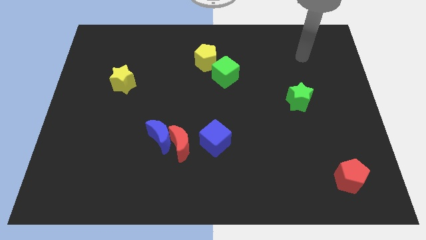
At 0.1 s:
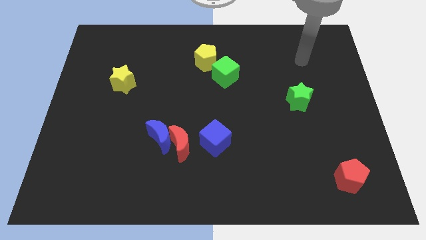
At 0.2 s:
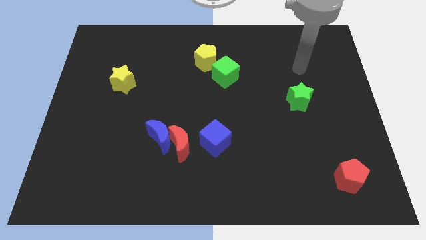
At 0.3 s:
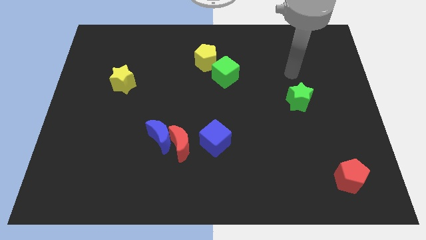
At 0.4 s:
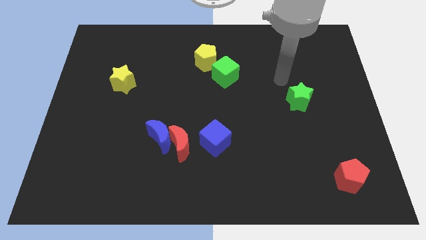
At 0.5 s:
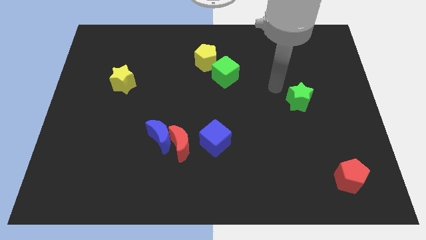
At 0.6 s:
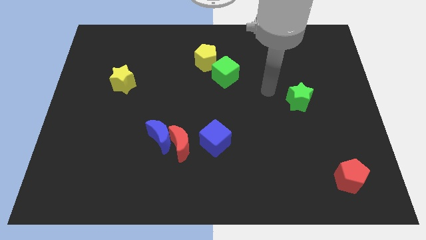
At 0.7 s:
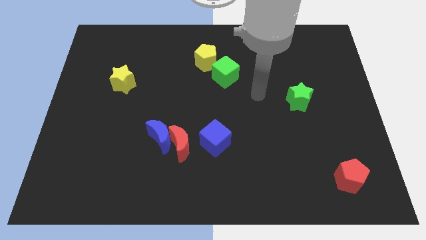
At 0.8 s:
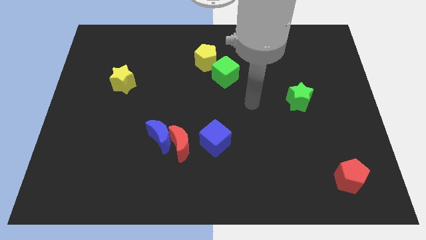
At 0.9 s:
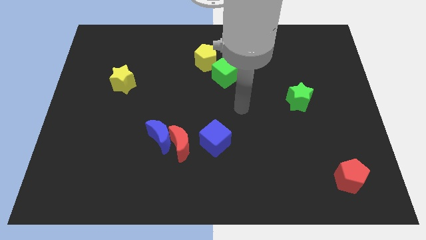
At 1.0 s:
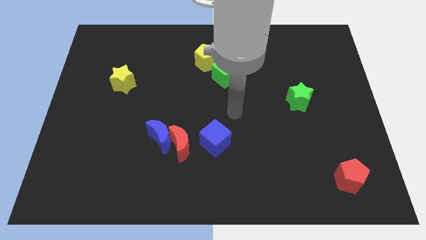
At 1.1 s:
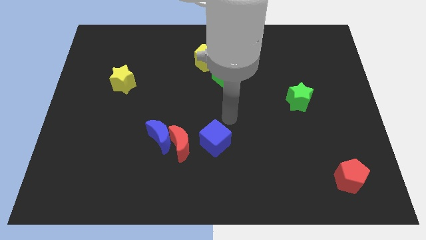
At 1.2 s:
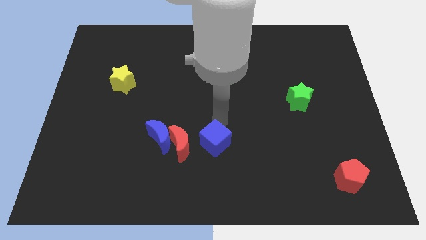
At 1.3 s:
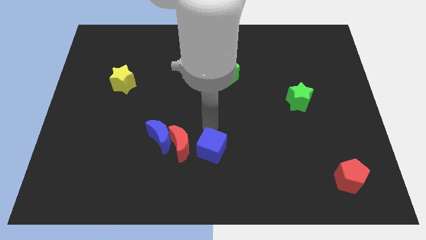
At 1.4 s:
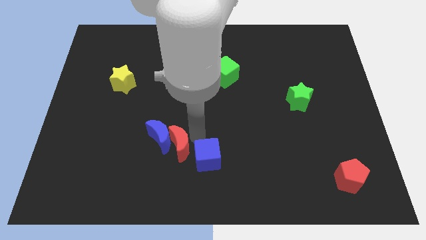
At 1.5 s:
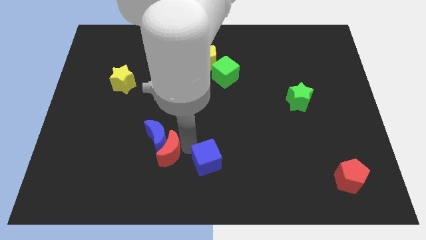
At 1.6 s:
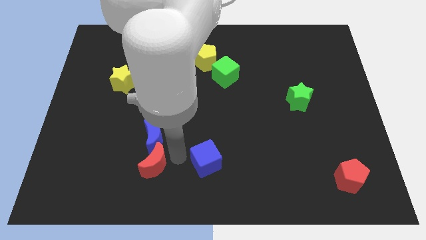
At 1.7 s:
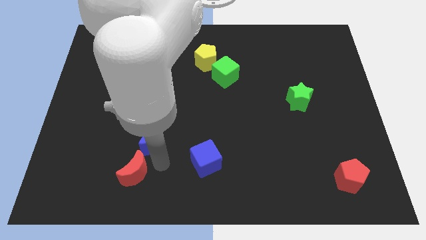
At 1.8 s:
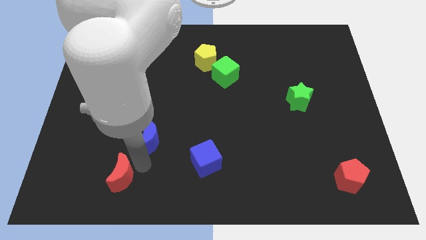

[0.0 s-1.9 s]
move the blue moon away from the red moon

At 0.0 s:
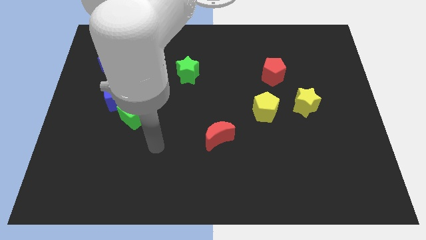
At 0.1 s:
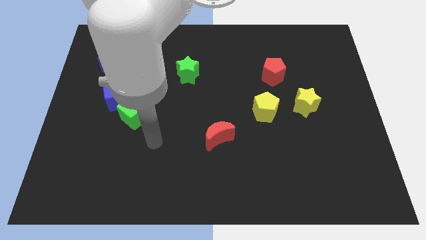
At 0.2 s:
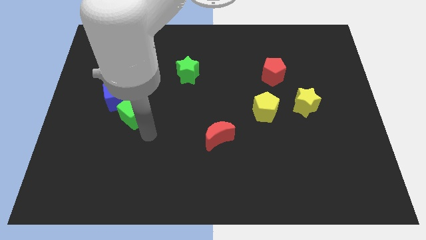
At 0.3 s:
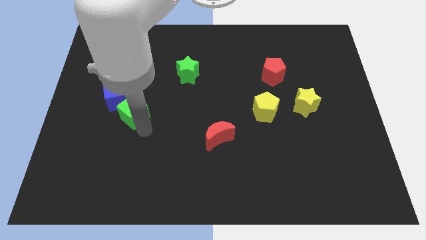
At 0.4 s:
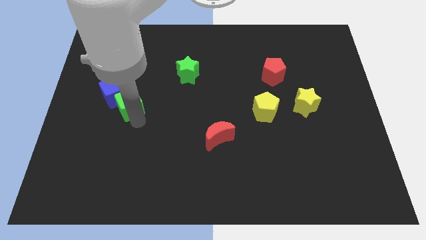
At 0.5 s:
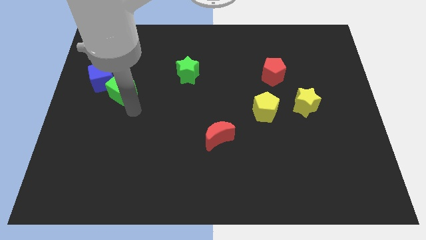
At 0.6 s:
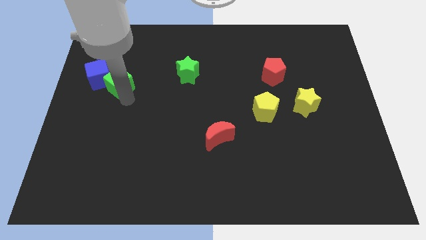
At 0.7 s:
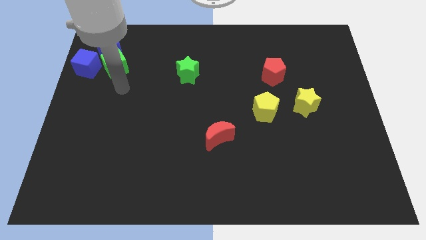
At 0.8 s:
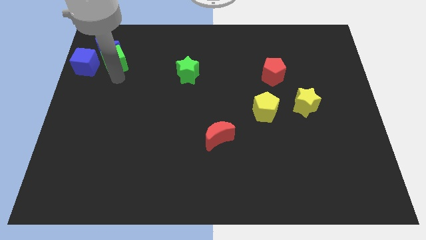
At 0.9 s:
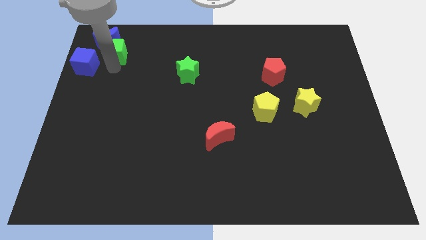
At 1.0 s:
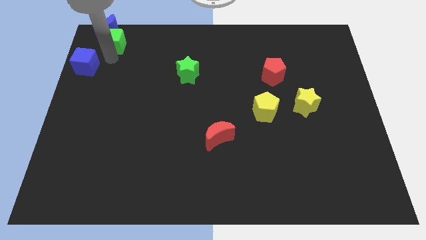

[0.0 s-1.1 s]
move the blue cube away from the green cube

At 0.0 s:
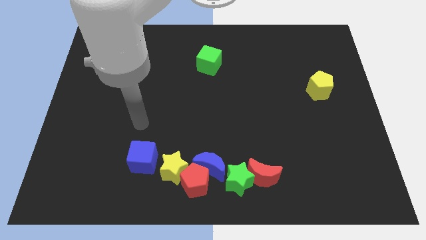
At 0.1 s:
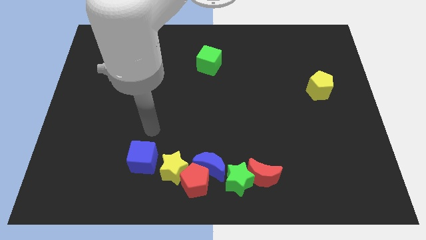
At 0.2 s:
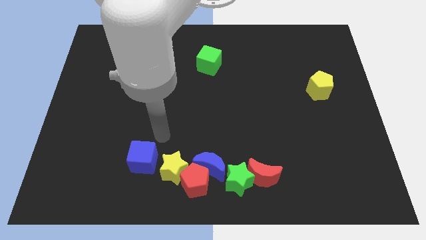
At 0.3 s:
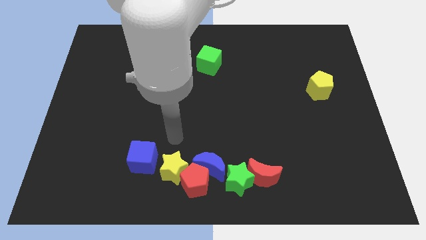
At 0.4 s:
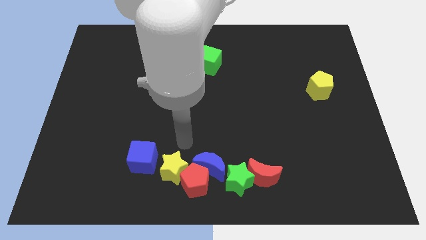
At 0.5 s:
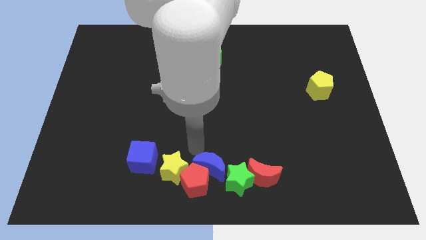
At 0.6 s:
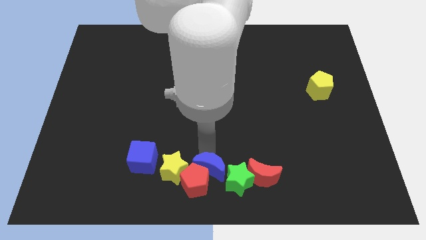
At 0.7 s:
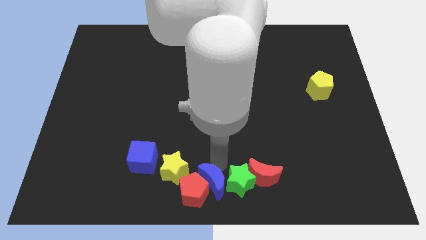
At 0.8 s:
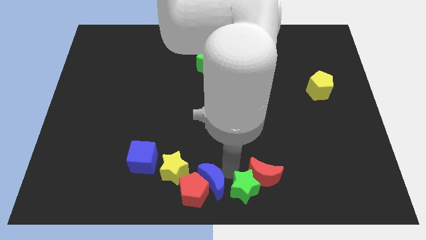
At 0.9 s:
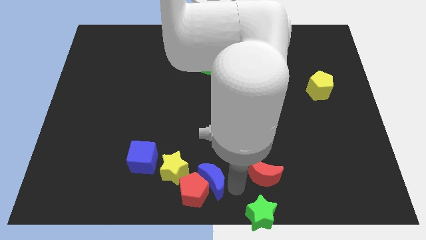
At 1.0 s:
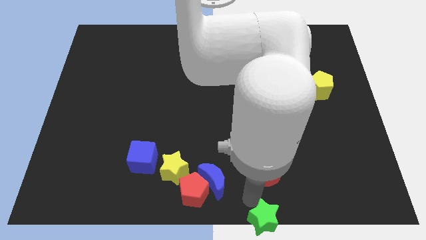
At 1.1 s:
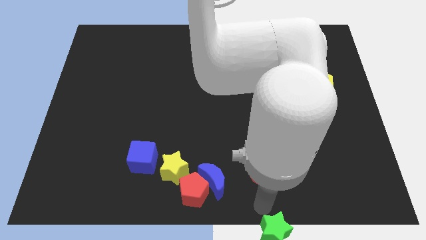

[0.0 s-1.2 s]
separate the red moon from the green star

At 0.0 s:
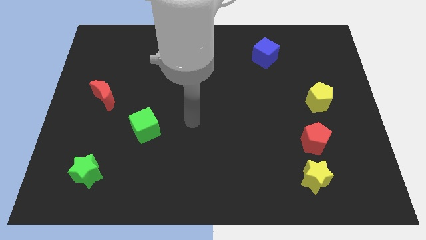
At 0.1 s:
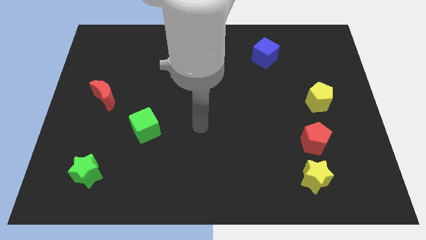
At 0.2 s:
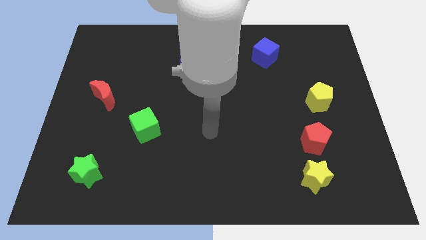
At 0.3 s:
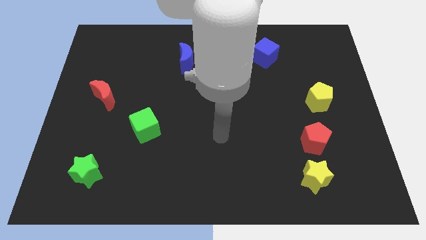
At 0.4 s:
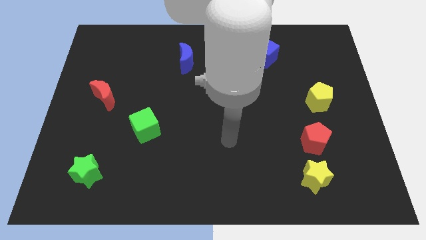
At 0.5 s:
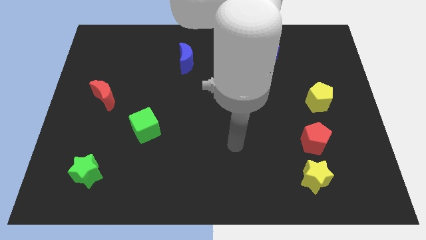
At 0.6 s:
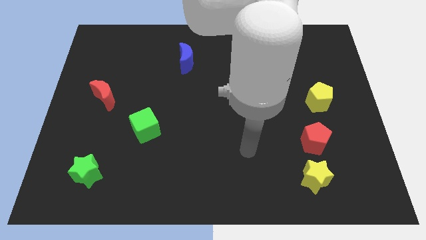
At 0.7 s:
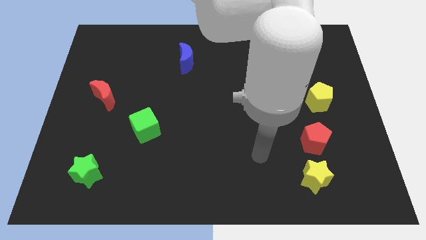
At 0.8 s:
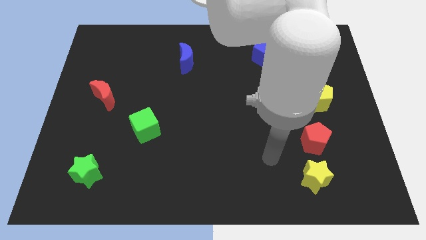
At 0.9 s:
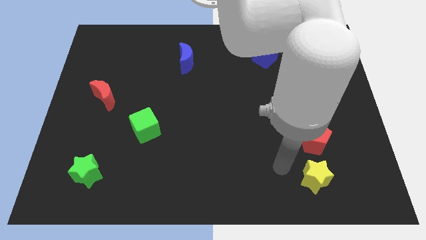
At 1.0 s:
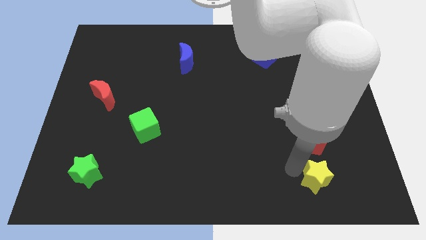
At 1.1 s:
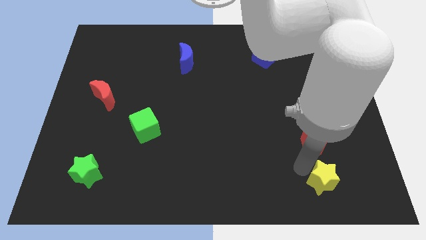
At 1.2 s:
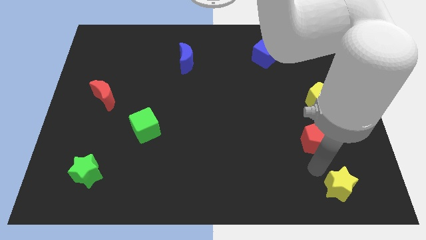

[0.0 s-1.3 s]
move the red pentagon away from the yellow star

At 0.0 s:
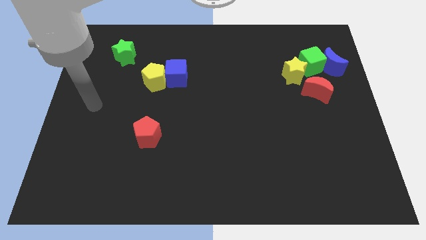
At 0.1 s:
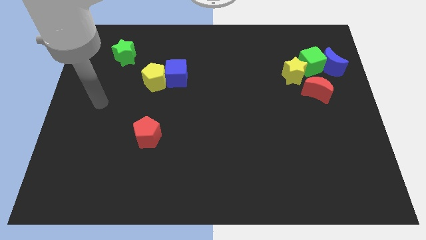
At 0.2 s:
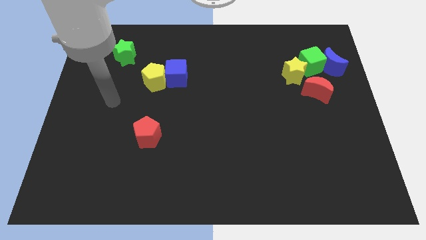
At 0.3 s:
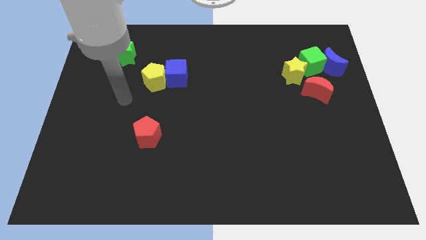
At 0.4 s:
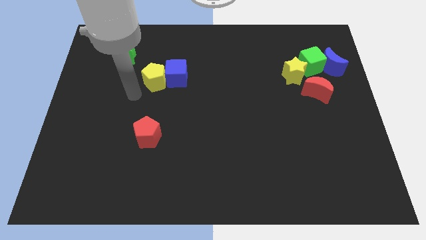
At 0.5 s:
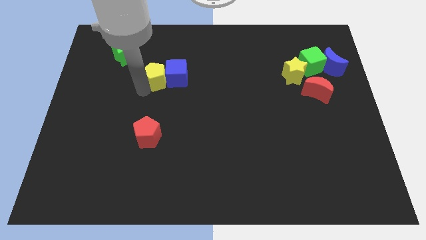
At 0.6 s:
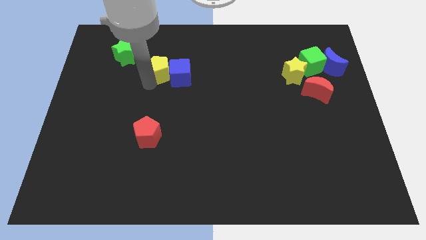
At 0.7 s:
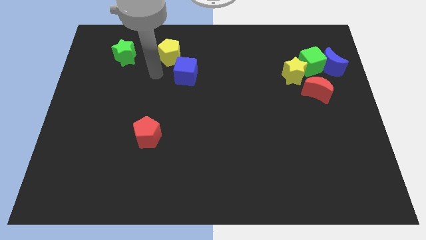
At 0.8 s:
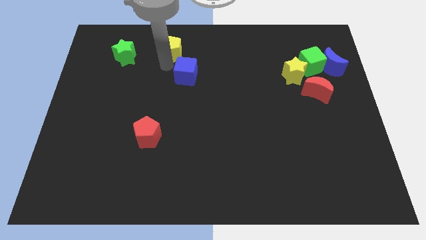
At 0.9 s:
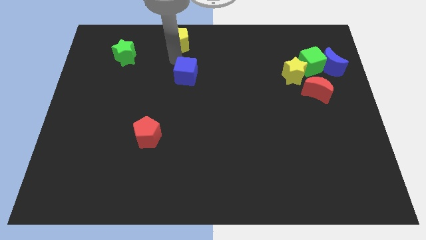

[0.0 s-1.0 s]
separate the blue cube from the yellow pentagon

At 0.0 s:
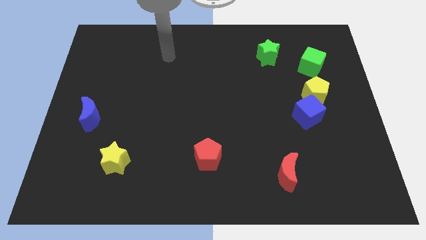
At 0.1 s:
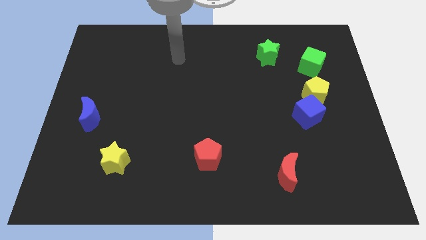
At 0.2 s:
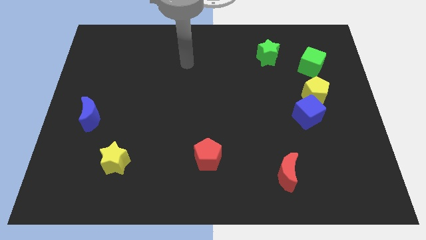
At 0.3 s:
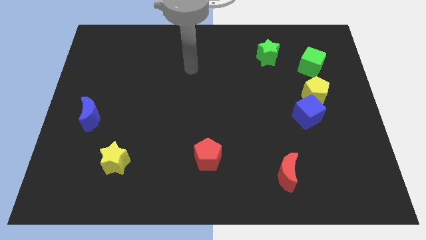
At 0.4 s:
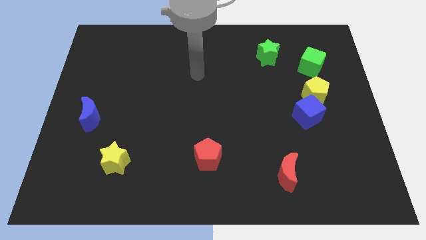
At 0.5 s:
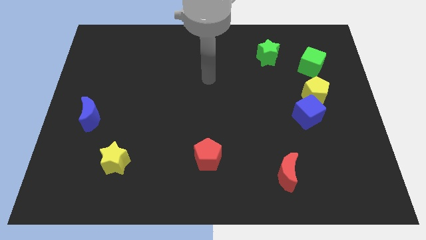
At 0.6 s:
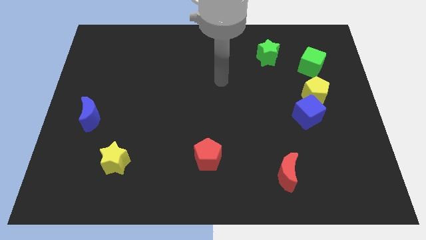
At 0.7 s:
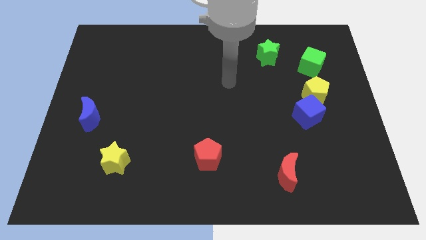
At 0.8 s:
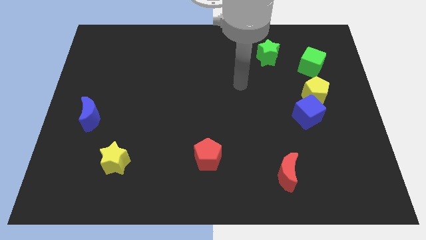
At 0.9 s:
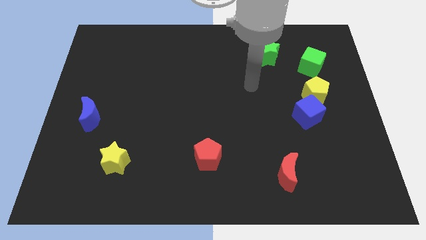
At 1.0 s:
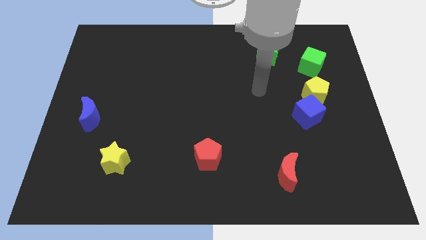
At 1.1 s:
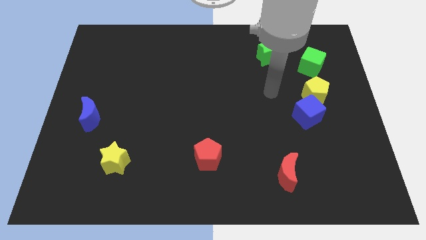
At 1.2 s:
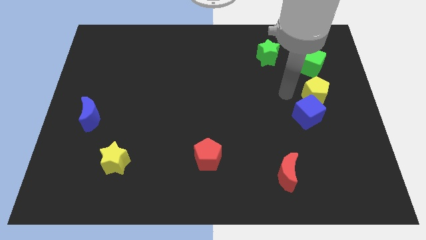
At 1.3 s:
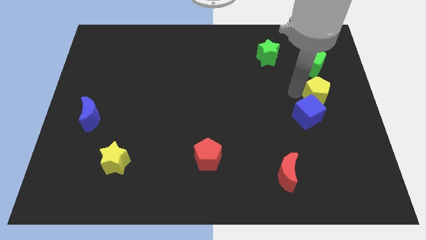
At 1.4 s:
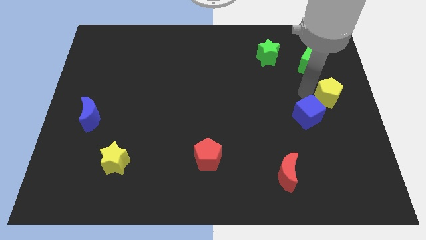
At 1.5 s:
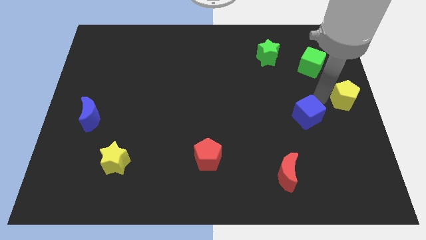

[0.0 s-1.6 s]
move the blue cube away from the yellow pentagon

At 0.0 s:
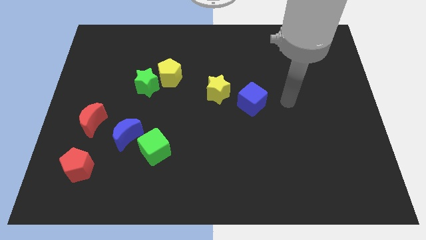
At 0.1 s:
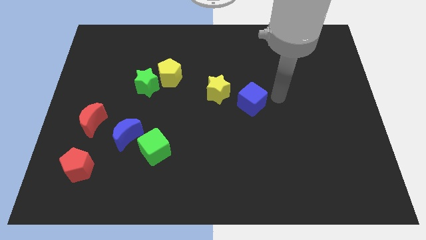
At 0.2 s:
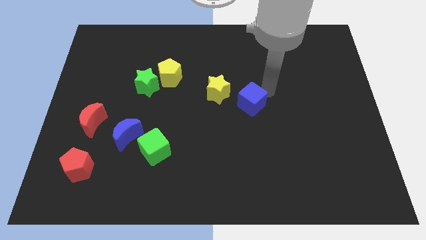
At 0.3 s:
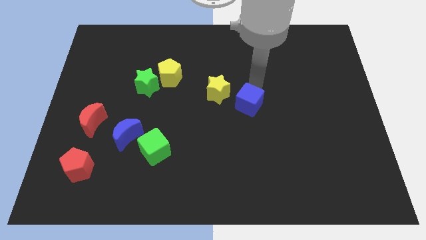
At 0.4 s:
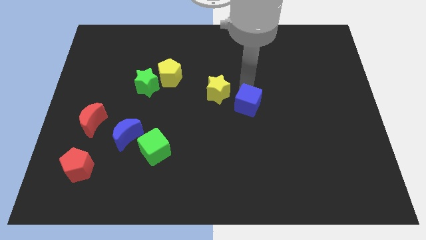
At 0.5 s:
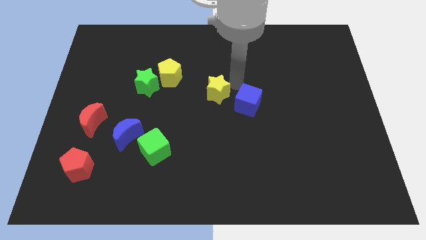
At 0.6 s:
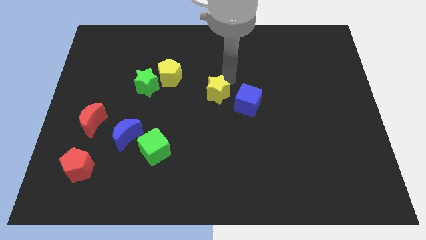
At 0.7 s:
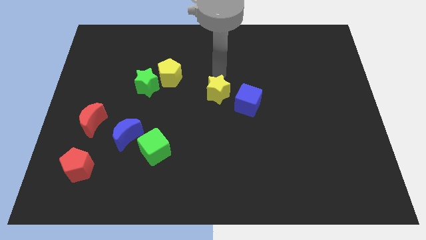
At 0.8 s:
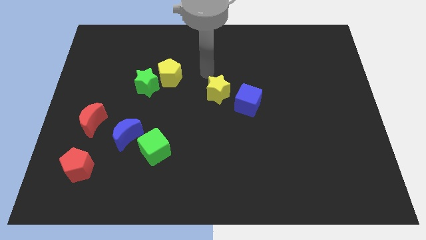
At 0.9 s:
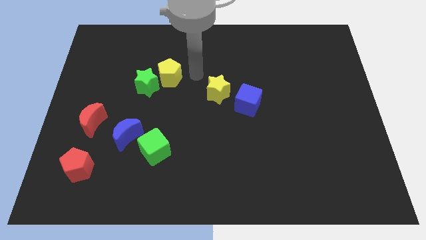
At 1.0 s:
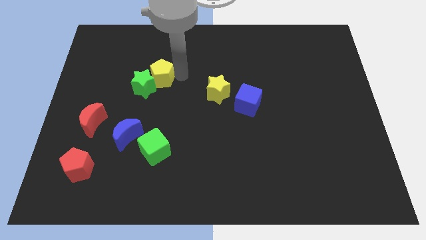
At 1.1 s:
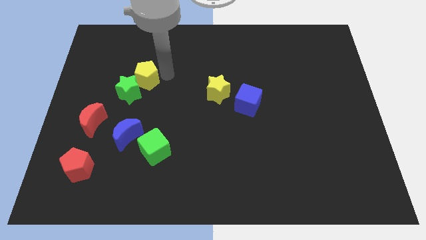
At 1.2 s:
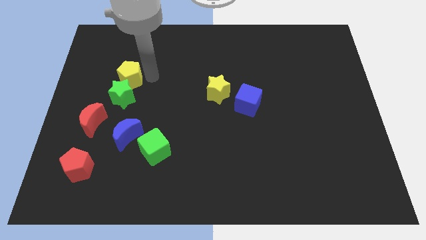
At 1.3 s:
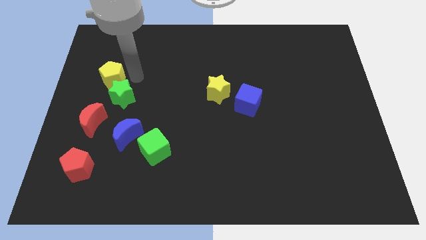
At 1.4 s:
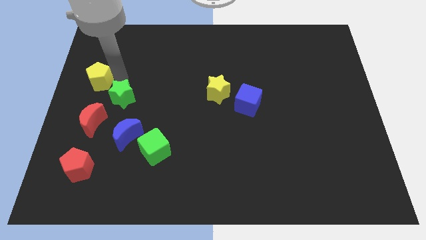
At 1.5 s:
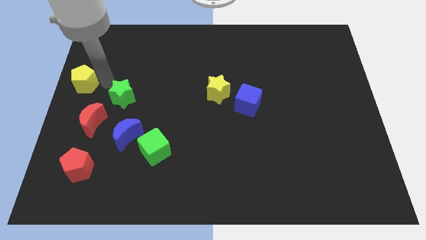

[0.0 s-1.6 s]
pull the green star apart from the yellow pentagon
